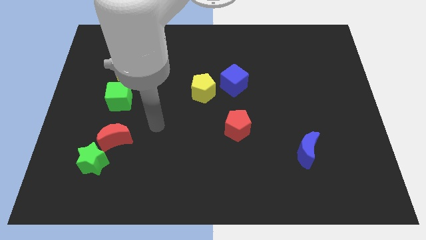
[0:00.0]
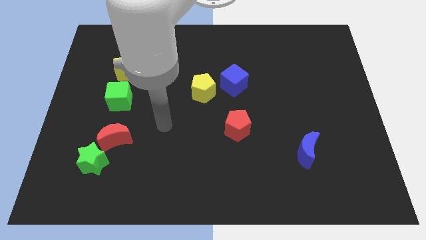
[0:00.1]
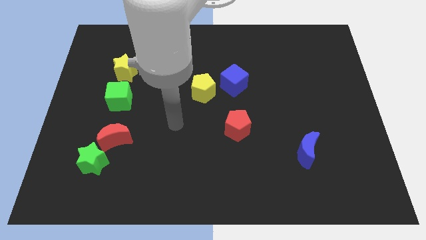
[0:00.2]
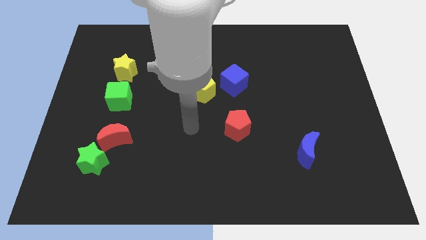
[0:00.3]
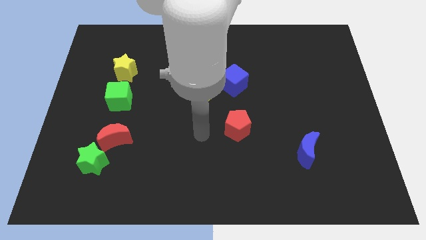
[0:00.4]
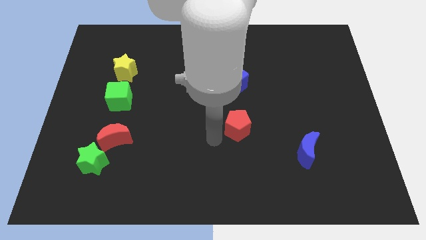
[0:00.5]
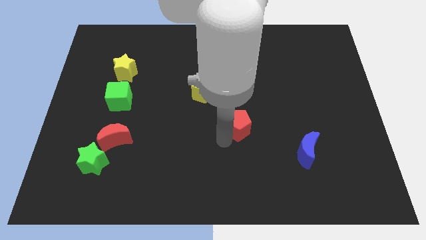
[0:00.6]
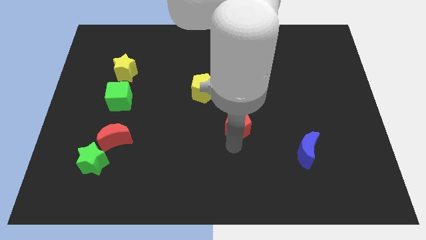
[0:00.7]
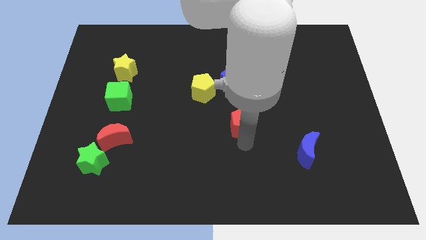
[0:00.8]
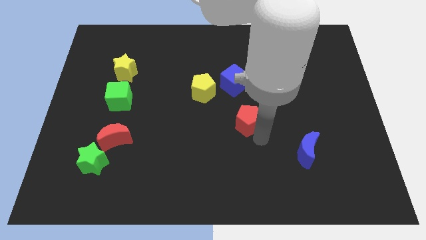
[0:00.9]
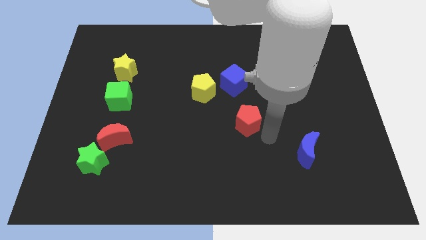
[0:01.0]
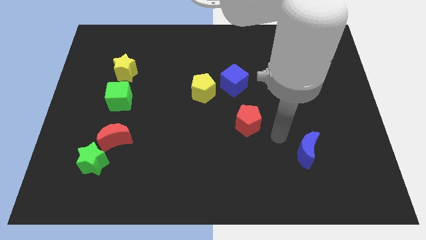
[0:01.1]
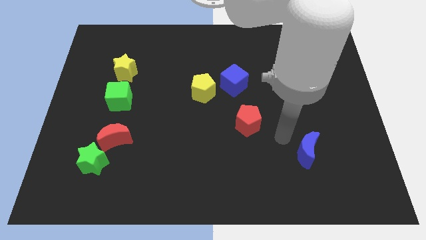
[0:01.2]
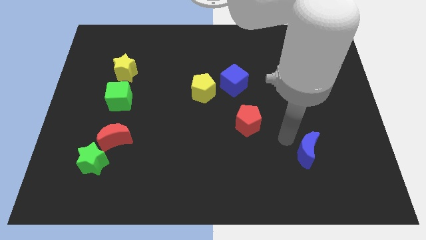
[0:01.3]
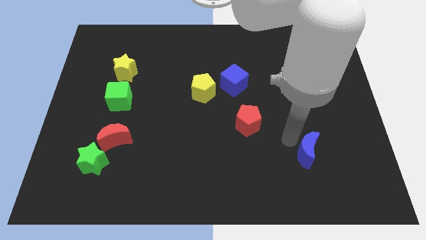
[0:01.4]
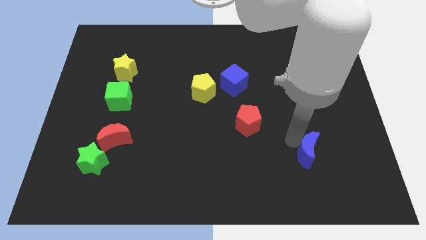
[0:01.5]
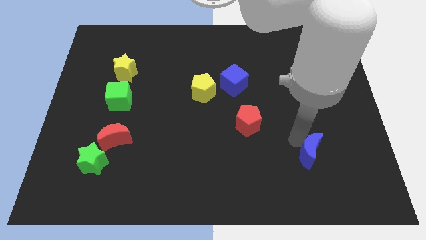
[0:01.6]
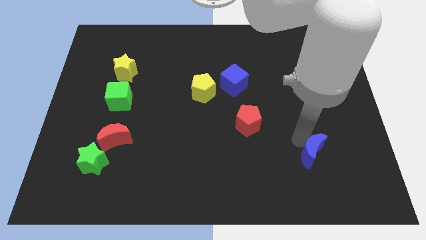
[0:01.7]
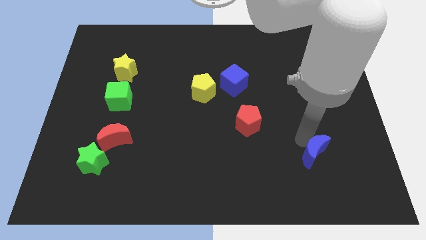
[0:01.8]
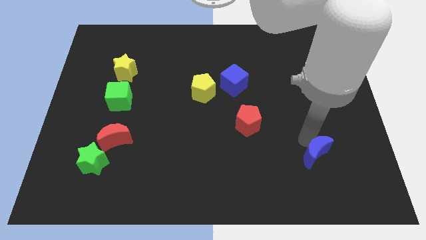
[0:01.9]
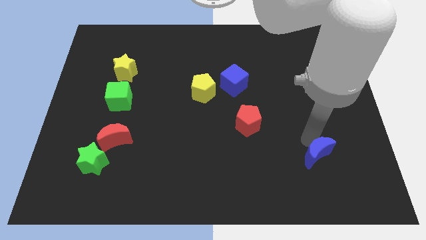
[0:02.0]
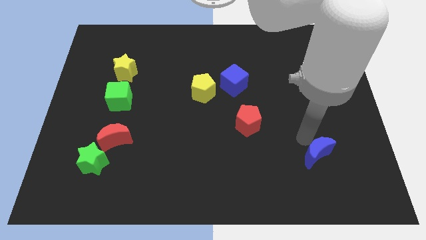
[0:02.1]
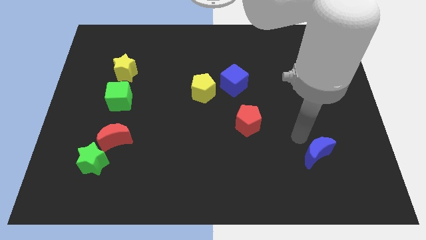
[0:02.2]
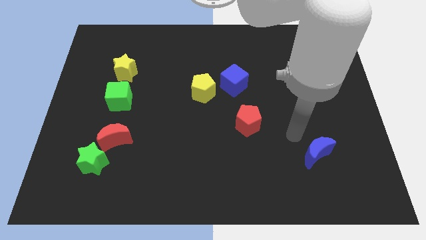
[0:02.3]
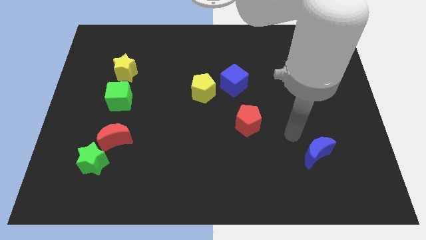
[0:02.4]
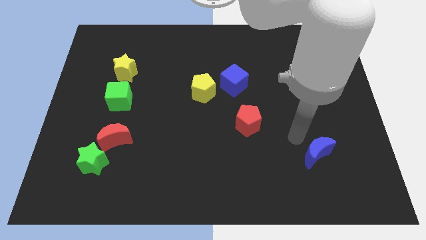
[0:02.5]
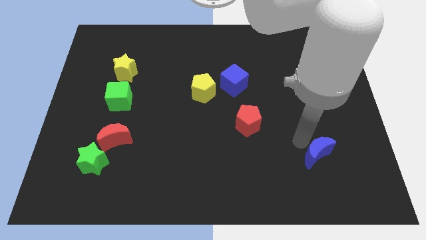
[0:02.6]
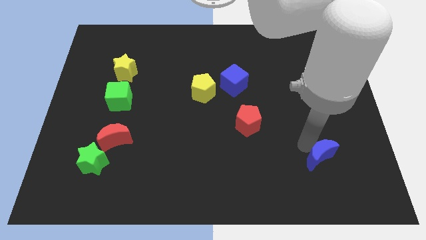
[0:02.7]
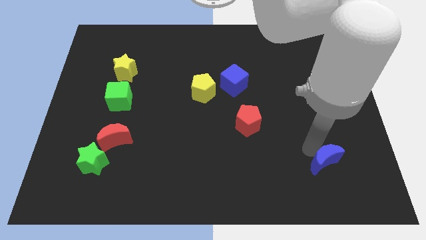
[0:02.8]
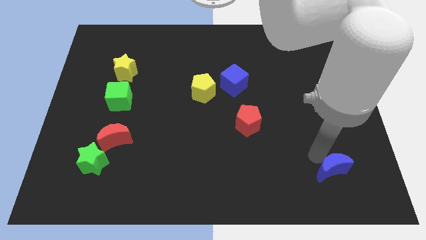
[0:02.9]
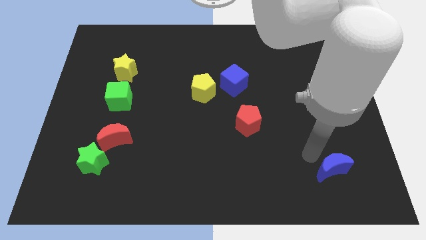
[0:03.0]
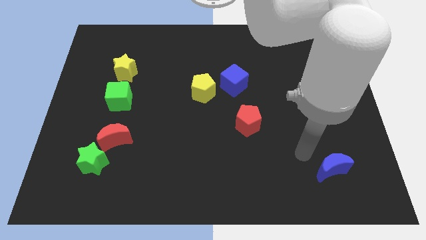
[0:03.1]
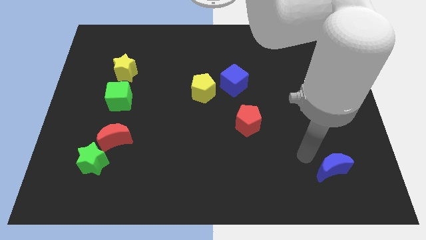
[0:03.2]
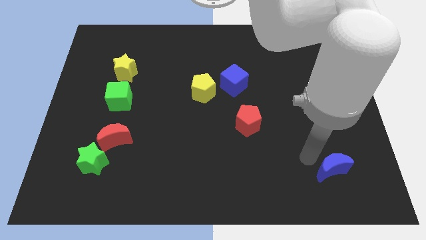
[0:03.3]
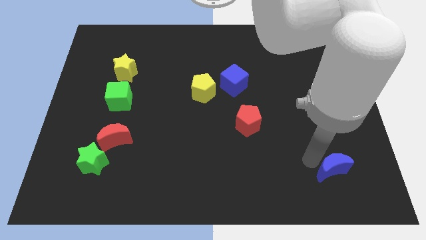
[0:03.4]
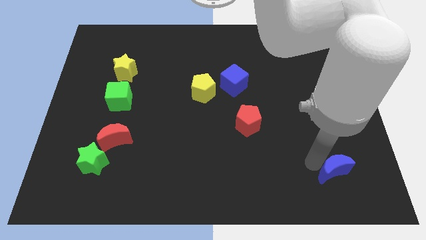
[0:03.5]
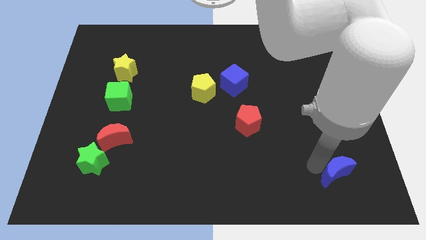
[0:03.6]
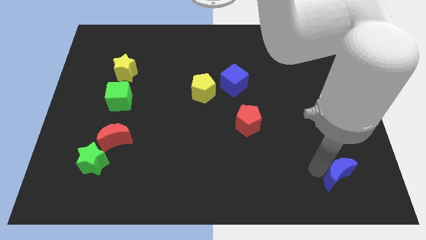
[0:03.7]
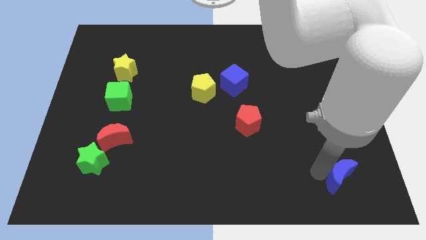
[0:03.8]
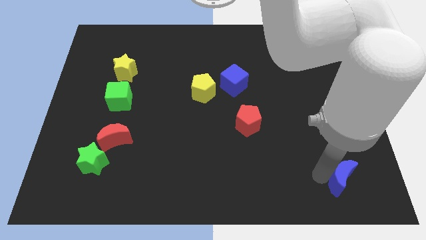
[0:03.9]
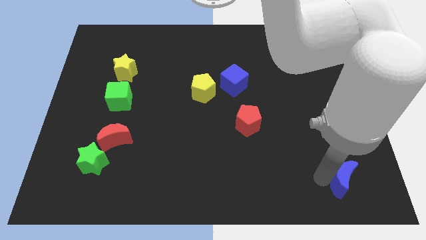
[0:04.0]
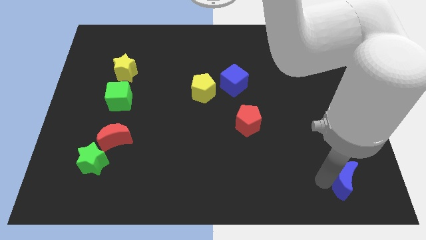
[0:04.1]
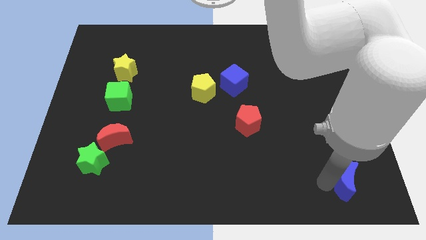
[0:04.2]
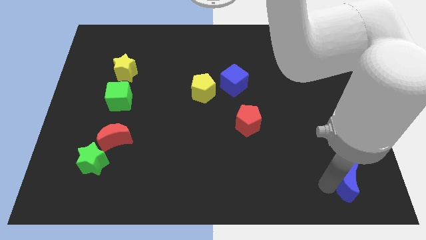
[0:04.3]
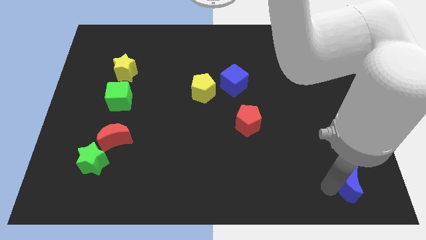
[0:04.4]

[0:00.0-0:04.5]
move the blue moon to the lower right corner

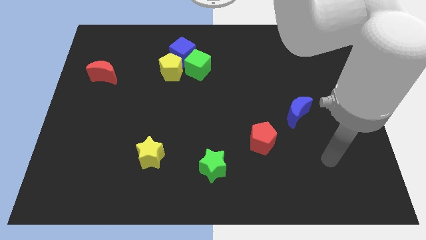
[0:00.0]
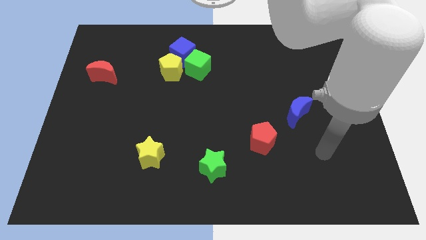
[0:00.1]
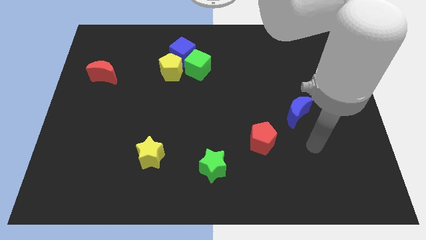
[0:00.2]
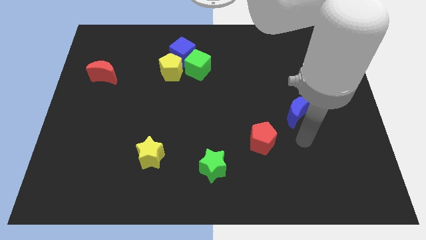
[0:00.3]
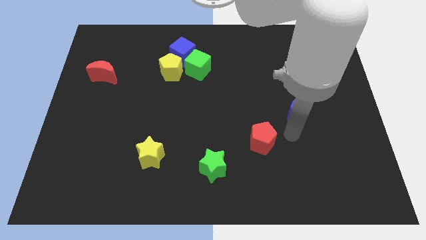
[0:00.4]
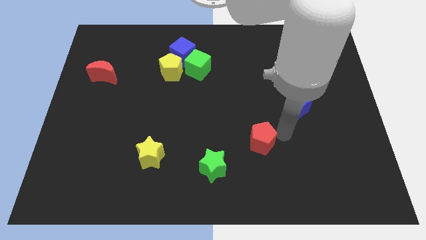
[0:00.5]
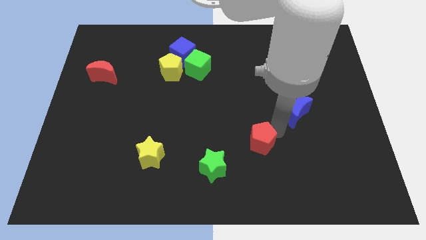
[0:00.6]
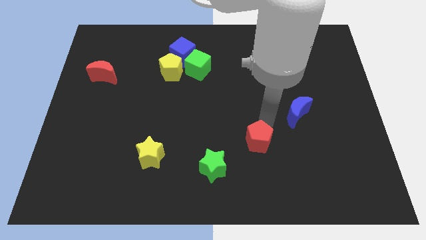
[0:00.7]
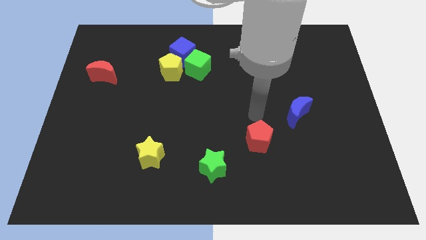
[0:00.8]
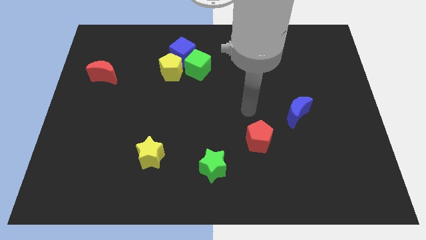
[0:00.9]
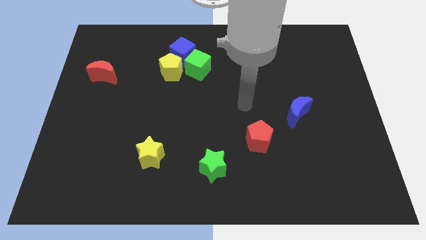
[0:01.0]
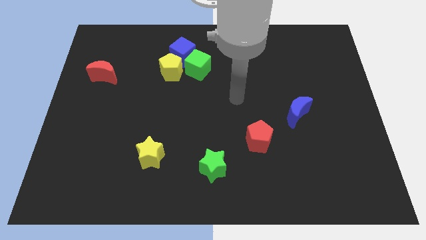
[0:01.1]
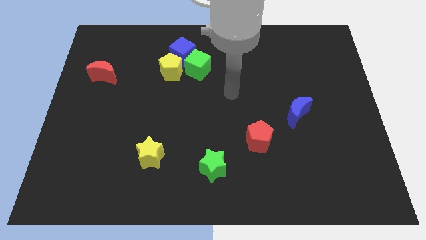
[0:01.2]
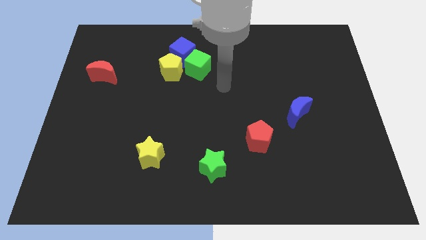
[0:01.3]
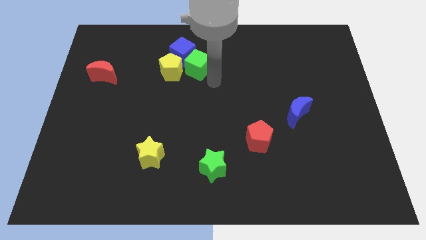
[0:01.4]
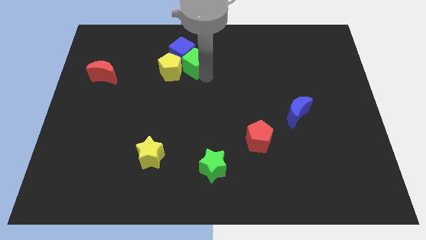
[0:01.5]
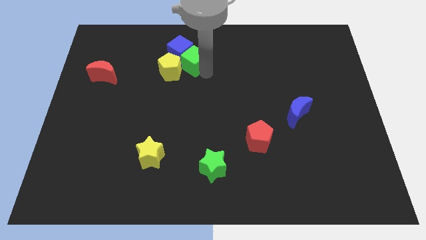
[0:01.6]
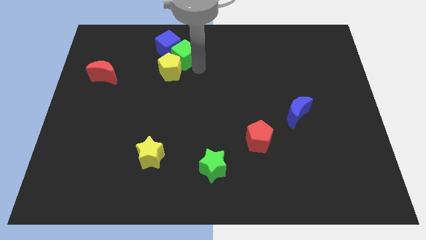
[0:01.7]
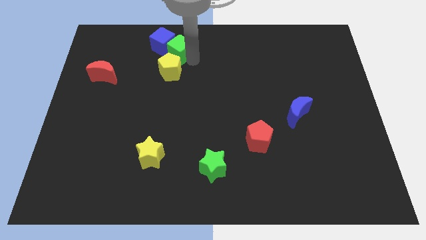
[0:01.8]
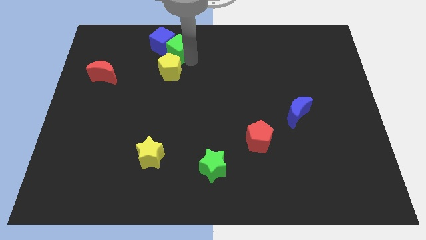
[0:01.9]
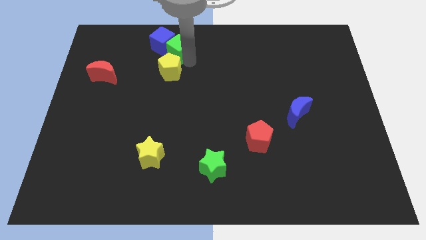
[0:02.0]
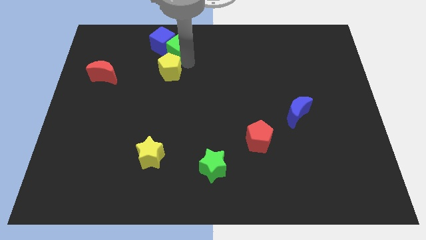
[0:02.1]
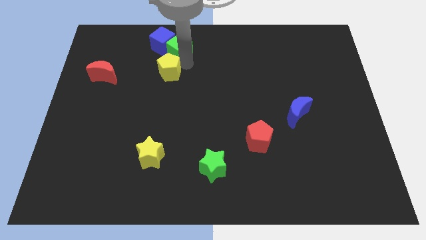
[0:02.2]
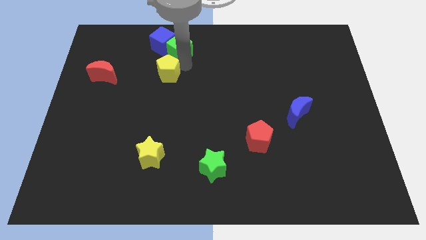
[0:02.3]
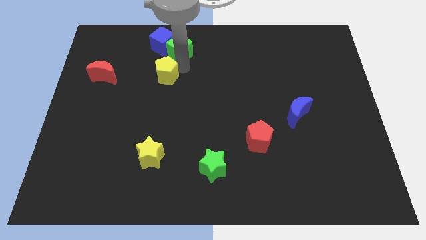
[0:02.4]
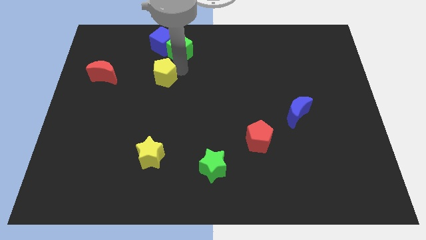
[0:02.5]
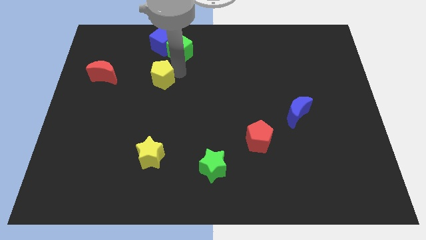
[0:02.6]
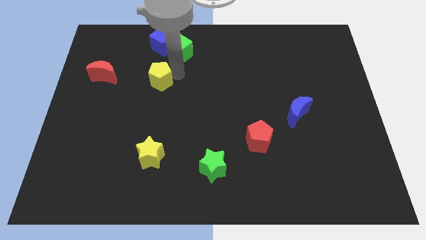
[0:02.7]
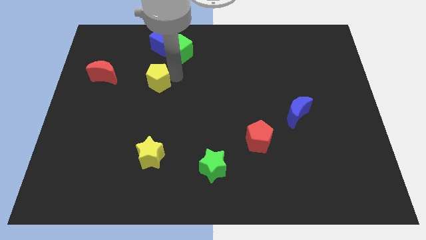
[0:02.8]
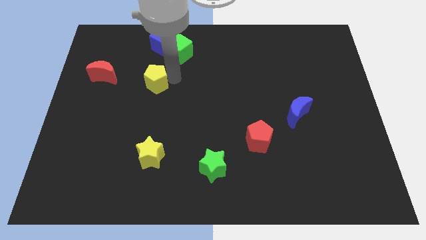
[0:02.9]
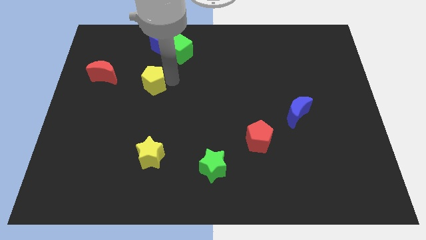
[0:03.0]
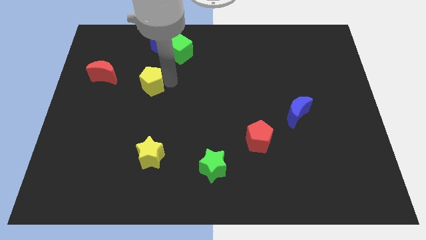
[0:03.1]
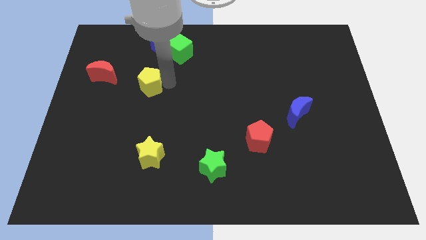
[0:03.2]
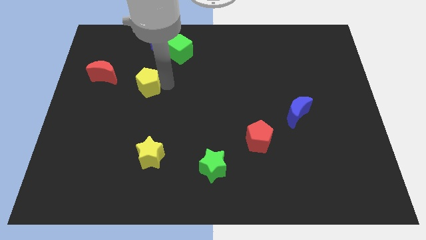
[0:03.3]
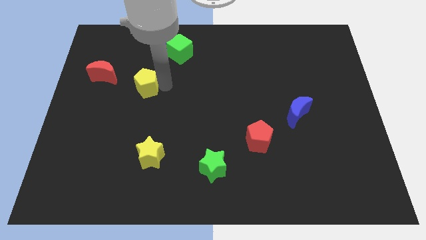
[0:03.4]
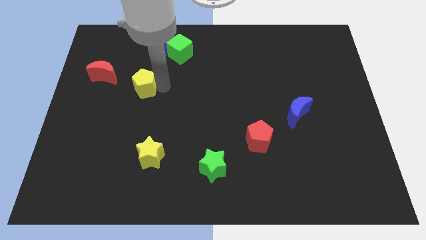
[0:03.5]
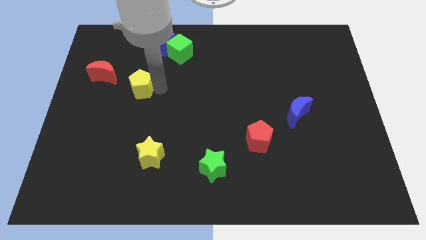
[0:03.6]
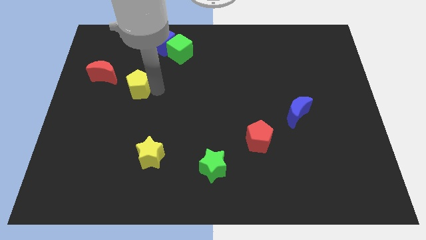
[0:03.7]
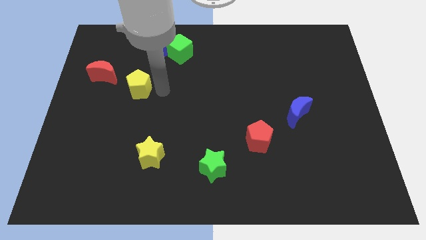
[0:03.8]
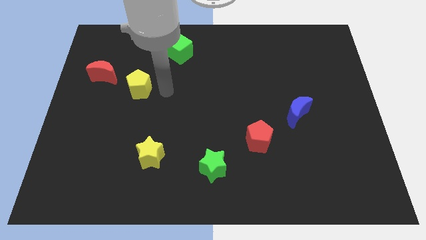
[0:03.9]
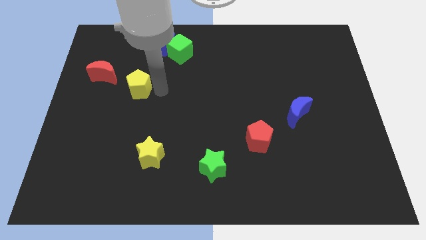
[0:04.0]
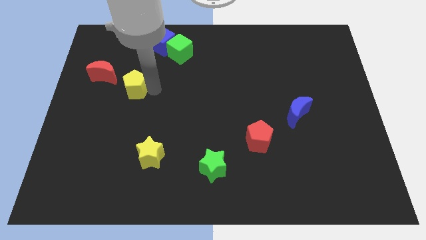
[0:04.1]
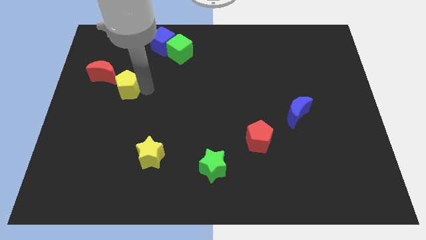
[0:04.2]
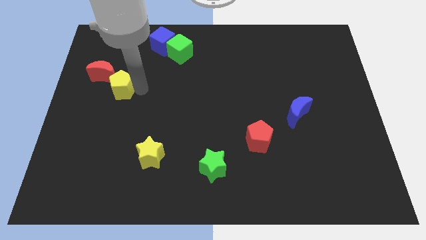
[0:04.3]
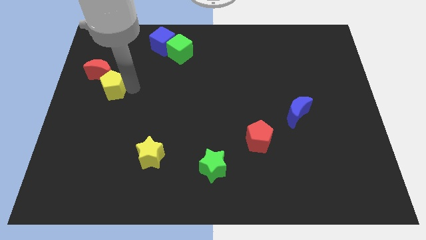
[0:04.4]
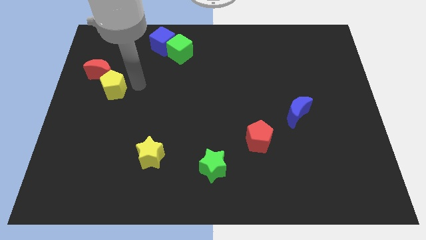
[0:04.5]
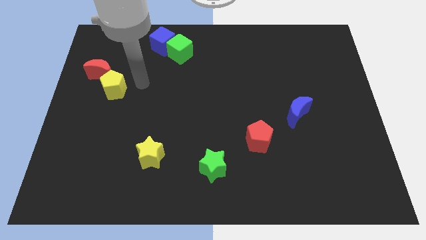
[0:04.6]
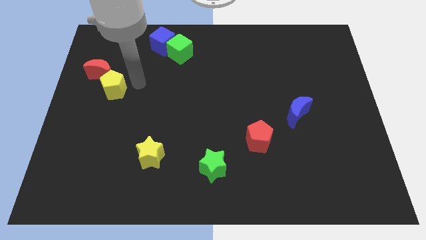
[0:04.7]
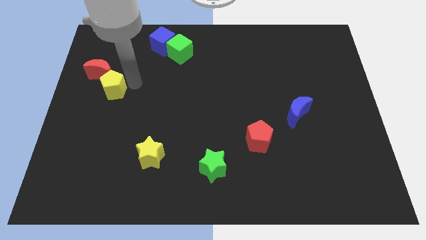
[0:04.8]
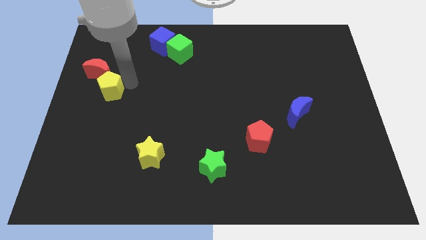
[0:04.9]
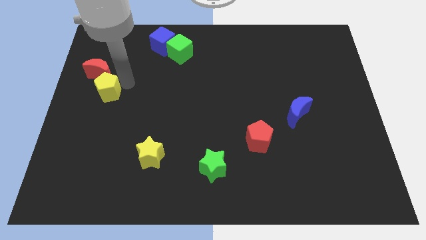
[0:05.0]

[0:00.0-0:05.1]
push the yellow pentagon to the left side of the board
